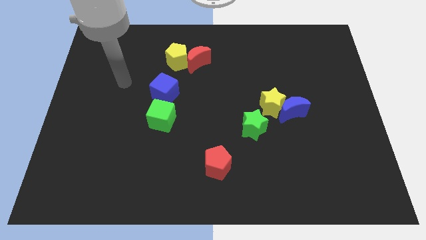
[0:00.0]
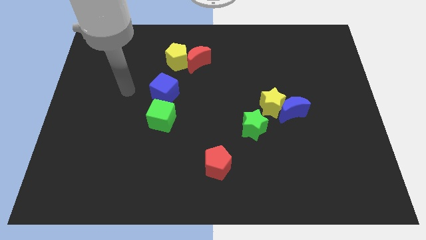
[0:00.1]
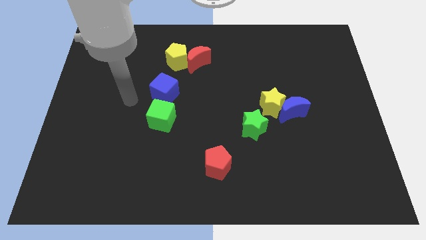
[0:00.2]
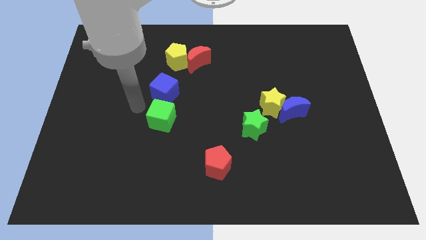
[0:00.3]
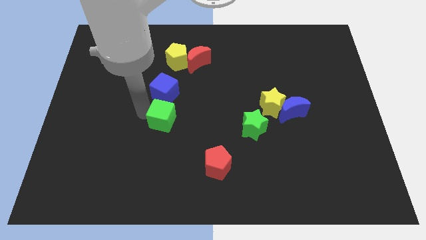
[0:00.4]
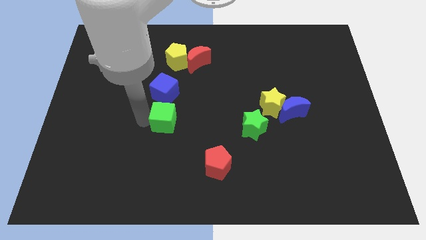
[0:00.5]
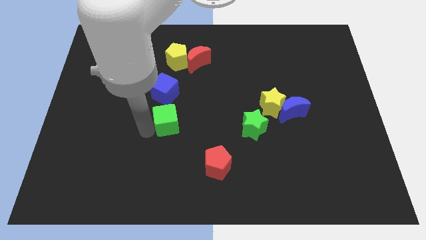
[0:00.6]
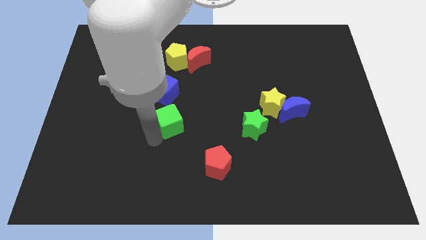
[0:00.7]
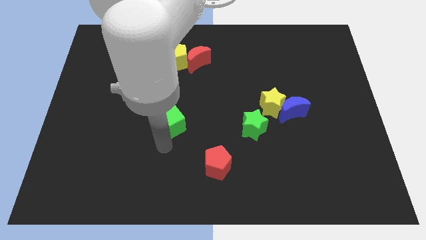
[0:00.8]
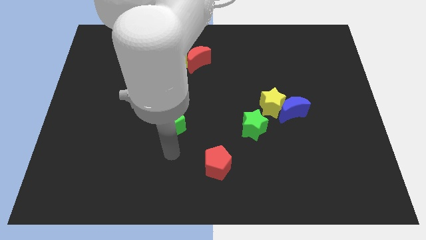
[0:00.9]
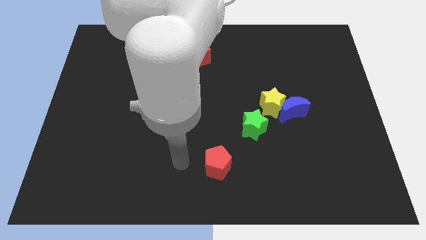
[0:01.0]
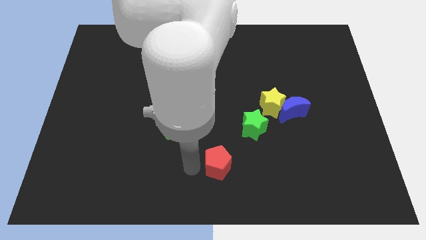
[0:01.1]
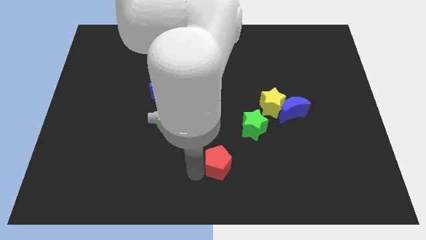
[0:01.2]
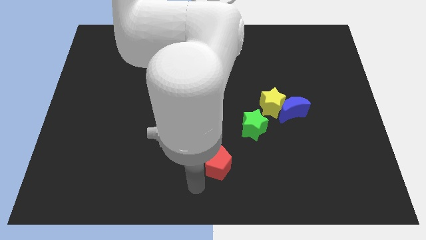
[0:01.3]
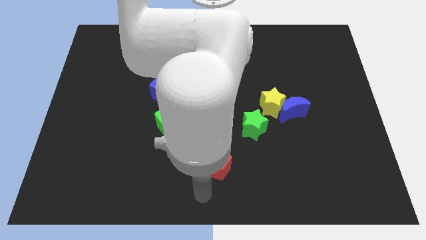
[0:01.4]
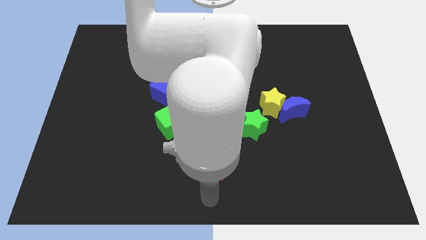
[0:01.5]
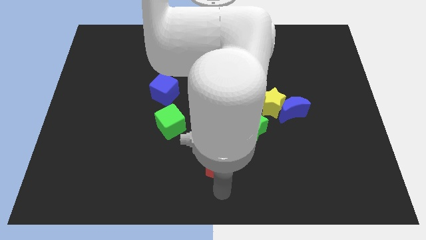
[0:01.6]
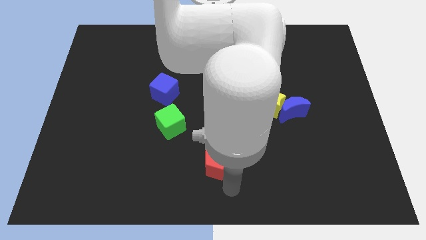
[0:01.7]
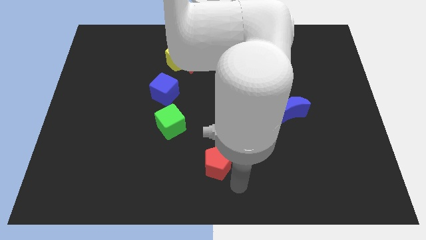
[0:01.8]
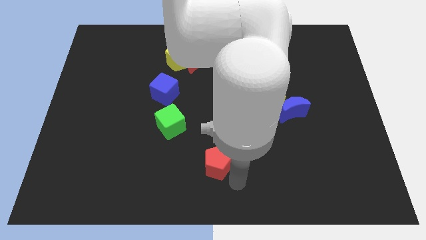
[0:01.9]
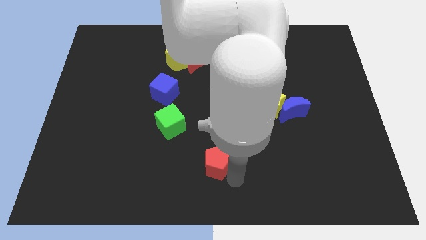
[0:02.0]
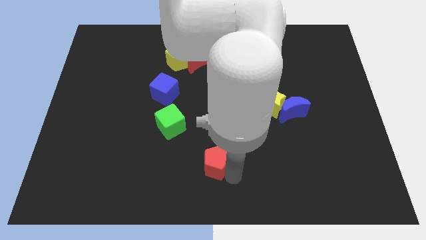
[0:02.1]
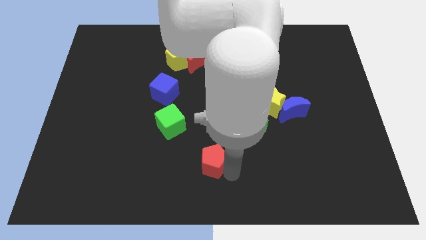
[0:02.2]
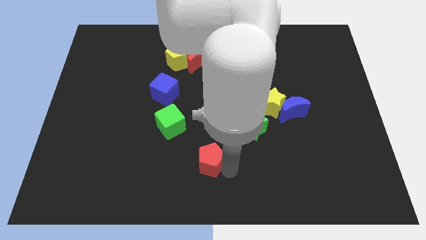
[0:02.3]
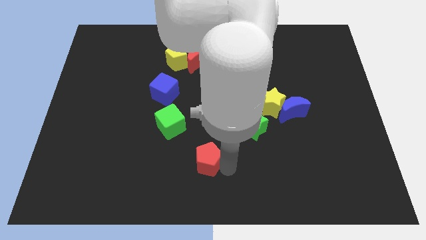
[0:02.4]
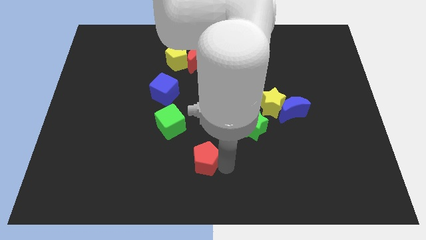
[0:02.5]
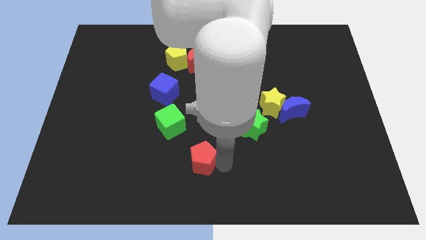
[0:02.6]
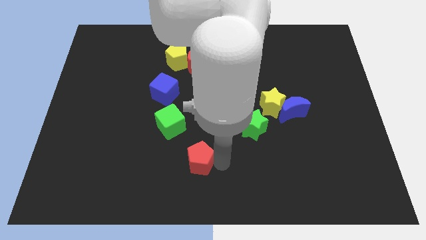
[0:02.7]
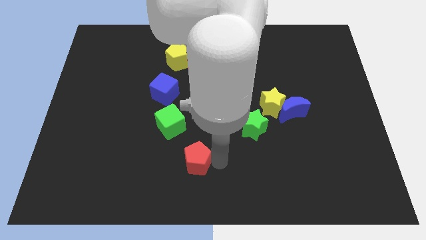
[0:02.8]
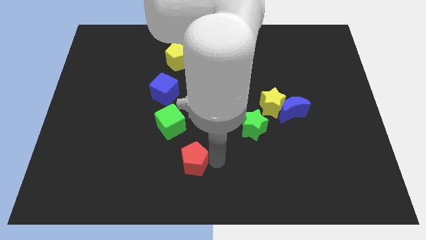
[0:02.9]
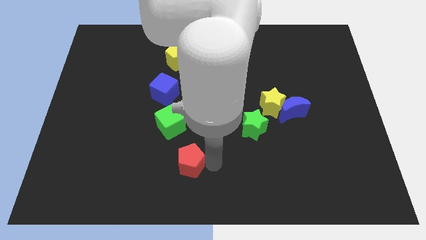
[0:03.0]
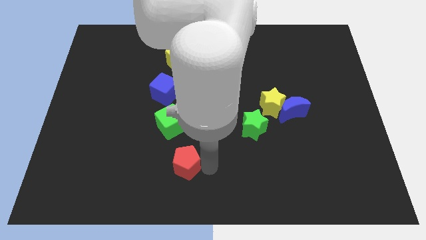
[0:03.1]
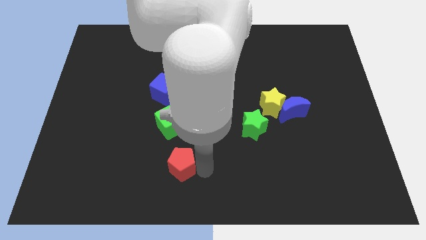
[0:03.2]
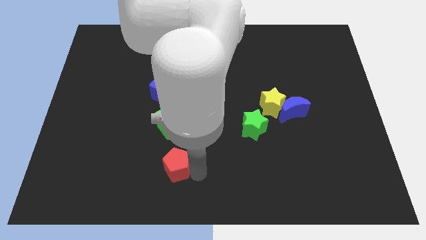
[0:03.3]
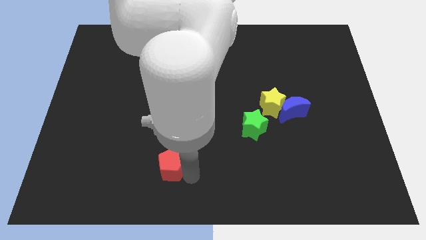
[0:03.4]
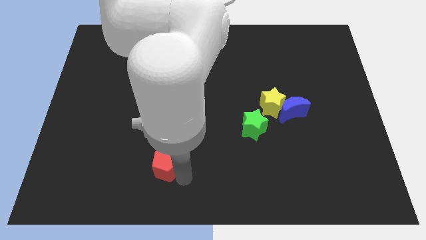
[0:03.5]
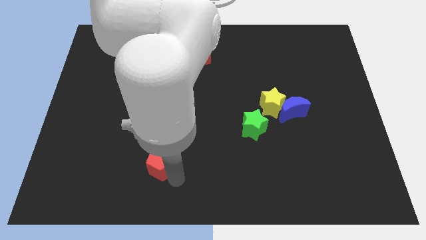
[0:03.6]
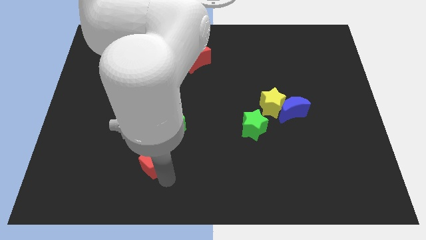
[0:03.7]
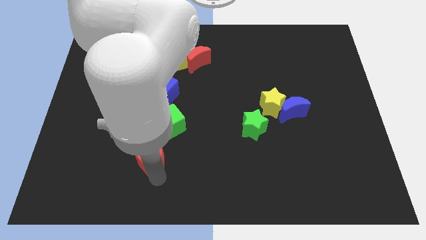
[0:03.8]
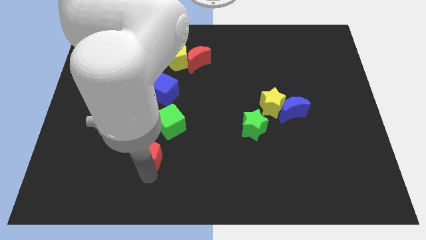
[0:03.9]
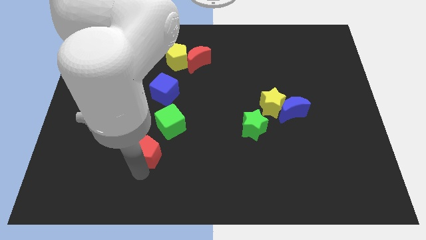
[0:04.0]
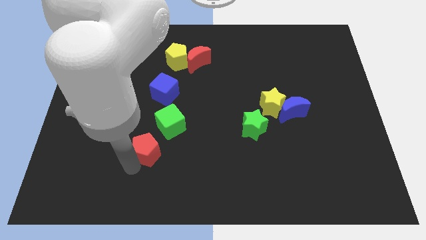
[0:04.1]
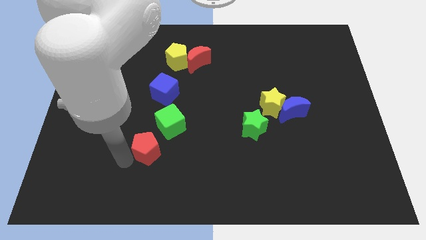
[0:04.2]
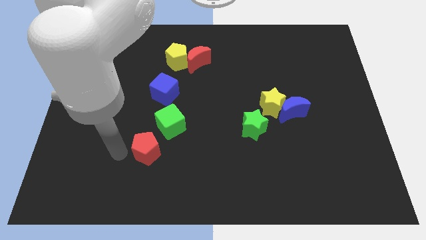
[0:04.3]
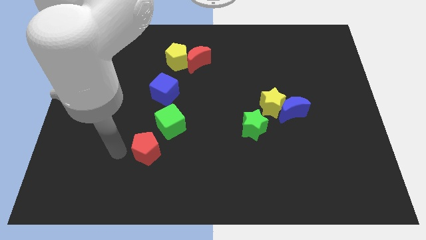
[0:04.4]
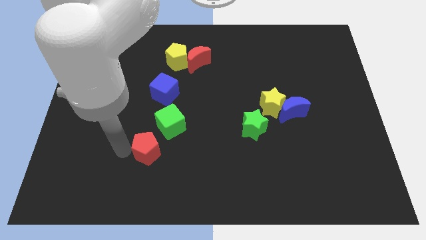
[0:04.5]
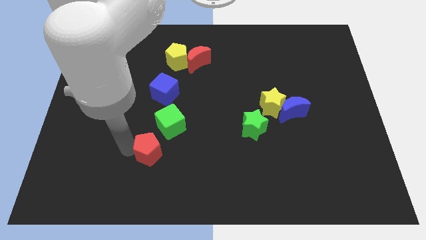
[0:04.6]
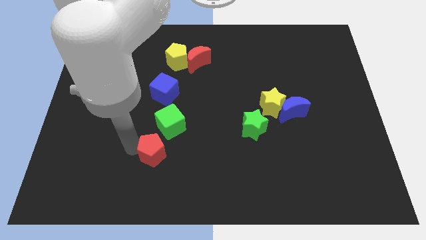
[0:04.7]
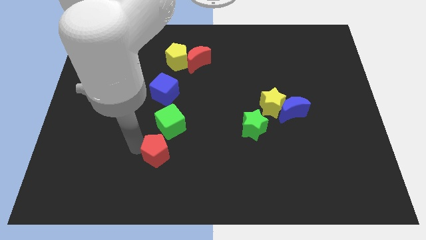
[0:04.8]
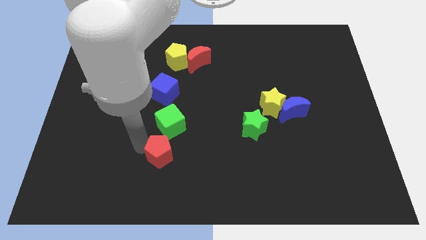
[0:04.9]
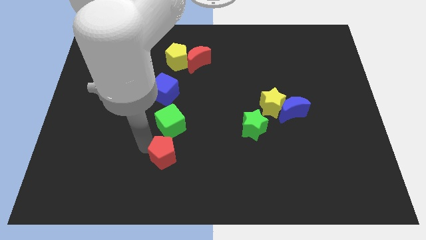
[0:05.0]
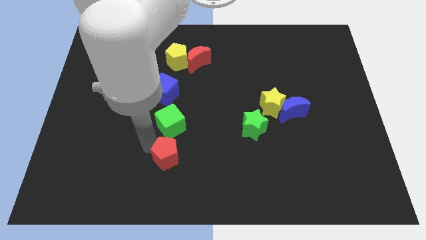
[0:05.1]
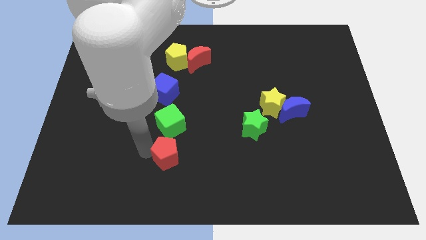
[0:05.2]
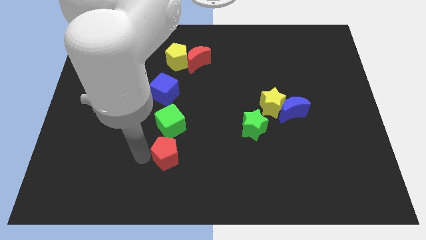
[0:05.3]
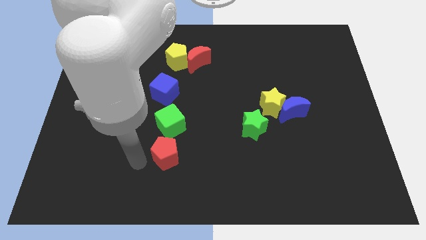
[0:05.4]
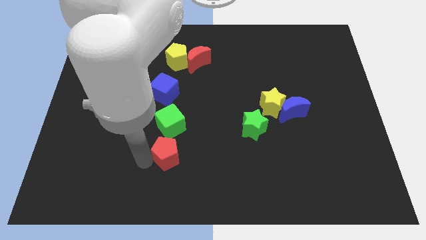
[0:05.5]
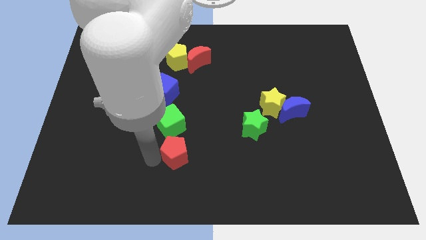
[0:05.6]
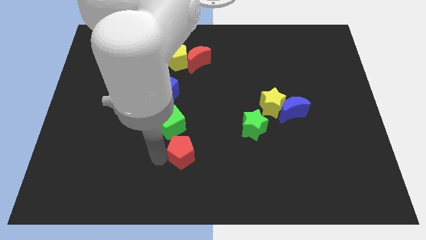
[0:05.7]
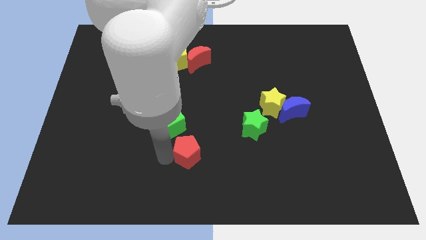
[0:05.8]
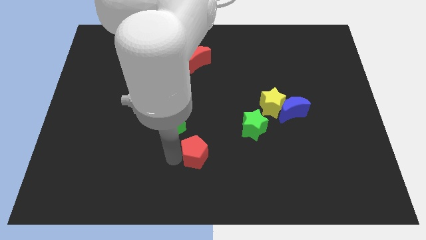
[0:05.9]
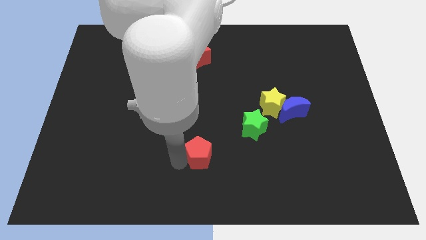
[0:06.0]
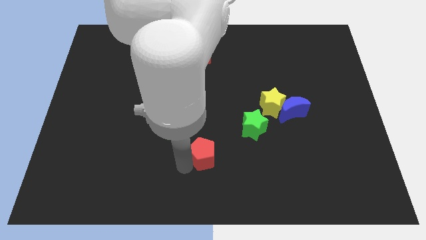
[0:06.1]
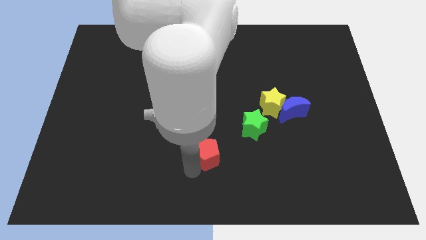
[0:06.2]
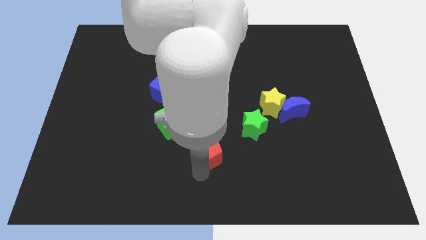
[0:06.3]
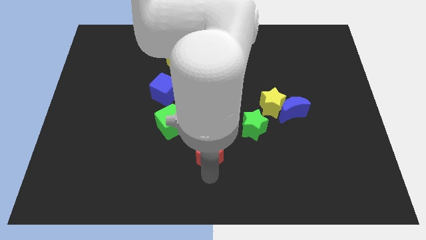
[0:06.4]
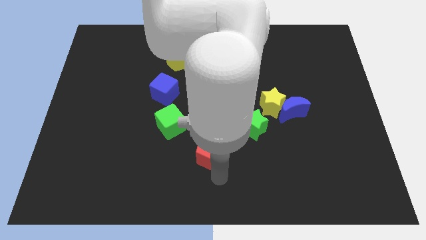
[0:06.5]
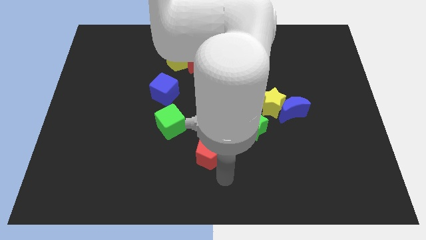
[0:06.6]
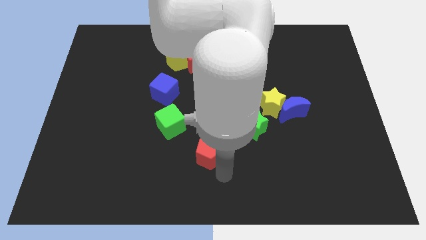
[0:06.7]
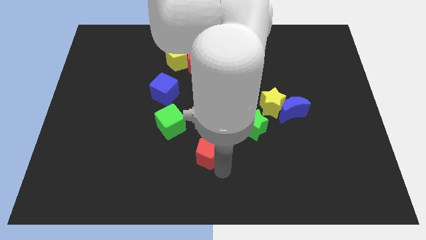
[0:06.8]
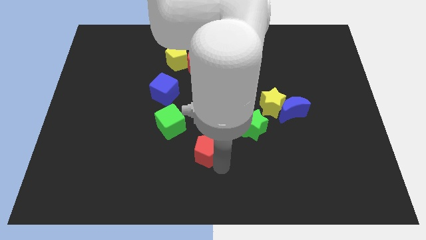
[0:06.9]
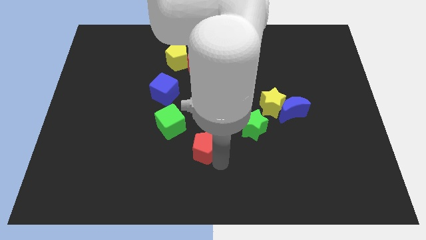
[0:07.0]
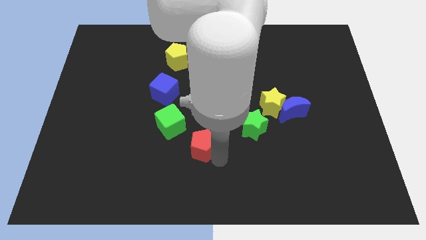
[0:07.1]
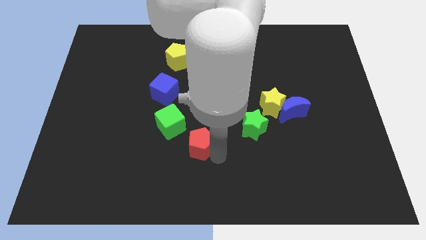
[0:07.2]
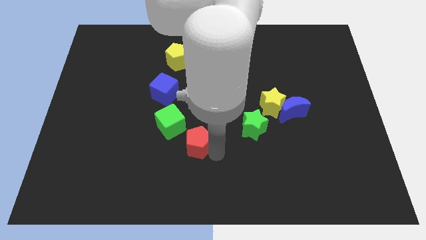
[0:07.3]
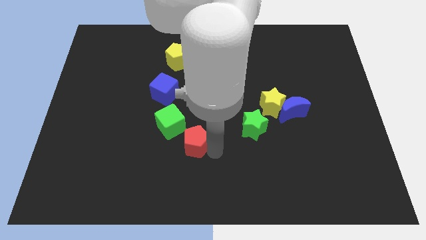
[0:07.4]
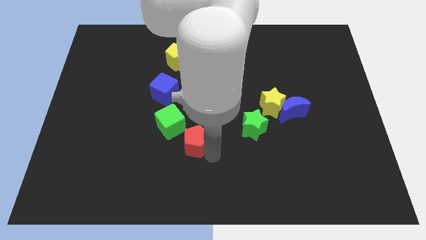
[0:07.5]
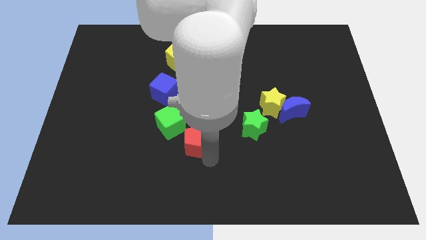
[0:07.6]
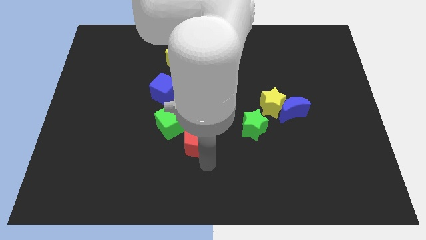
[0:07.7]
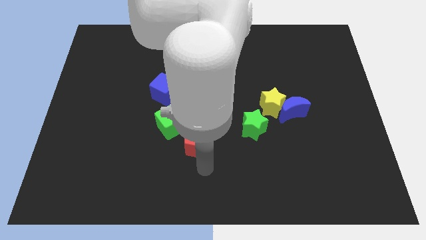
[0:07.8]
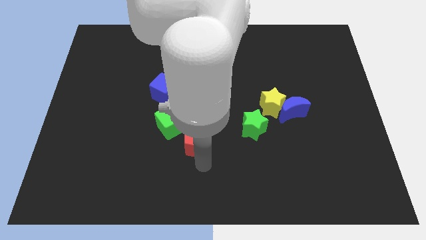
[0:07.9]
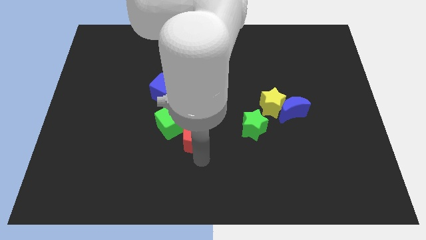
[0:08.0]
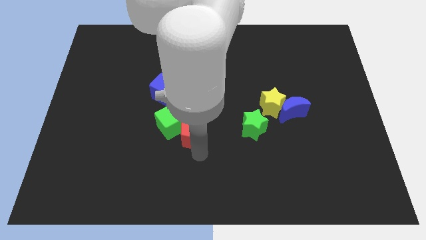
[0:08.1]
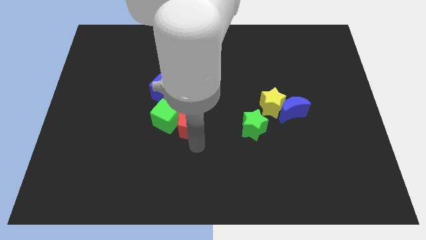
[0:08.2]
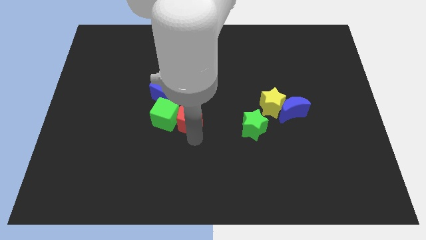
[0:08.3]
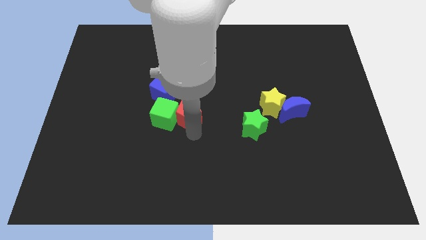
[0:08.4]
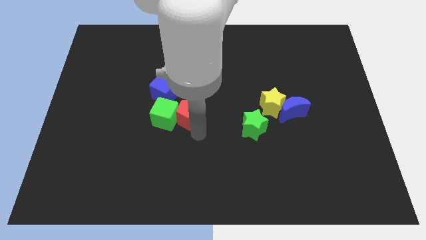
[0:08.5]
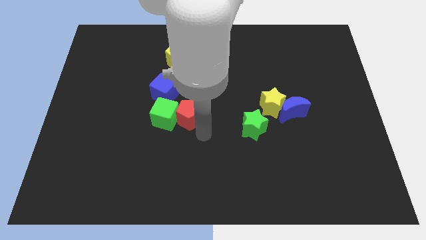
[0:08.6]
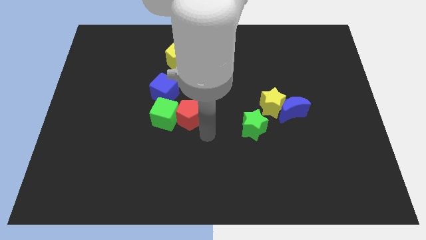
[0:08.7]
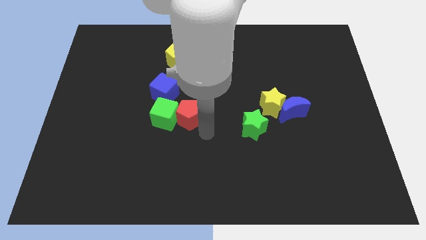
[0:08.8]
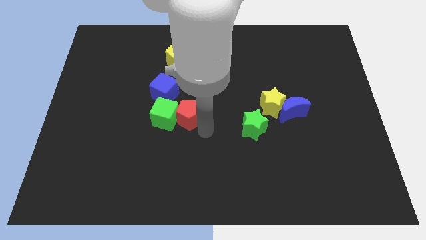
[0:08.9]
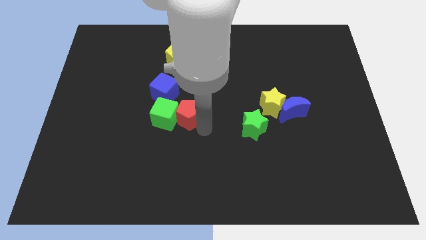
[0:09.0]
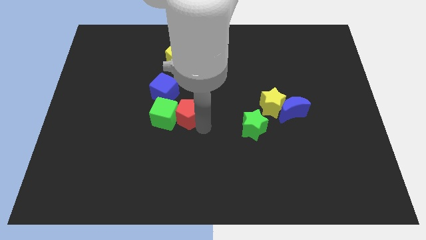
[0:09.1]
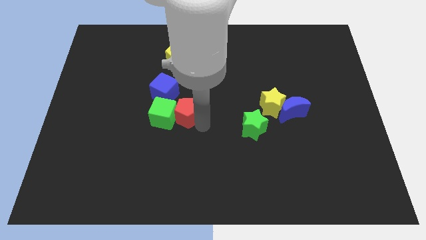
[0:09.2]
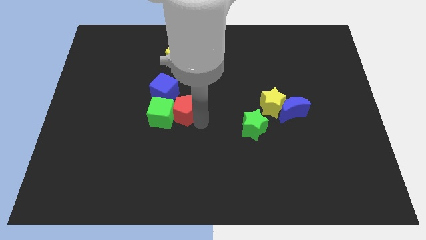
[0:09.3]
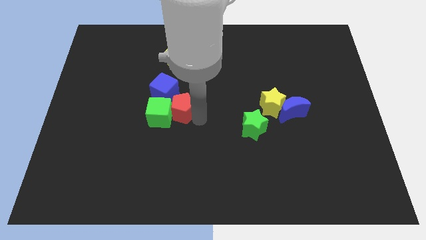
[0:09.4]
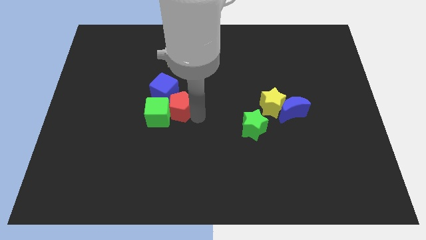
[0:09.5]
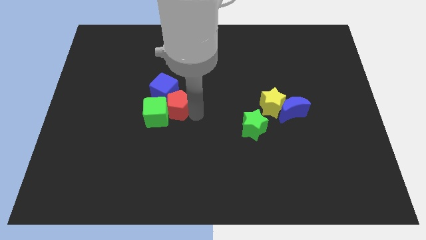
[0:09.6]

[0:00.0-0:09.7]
slide the red pentagon towards the blue cube
